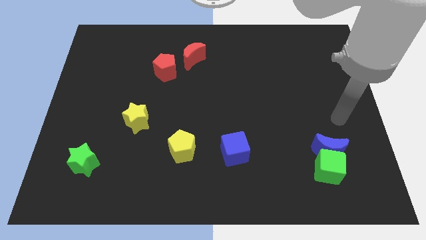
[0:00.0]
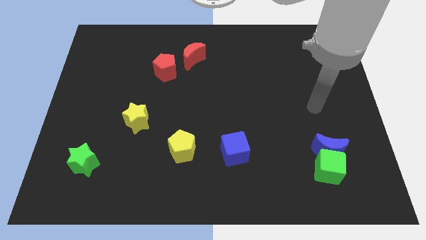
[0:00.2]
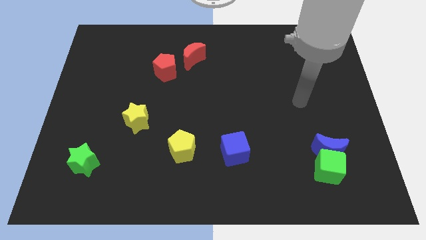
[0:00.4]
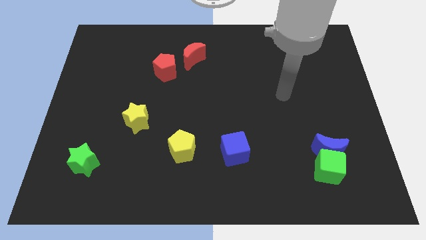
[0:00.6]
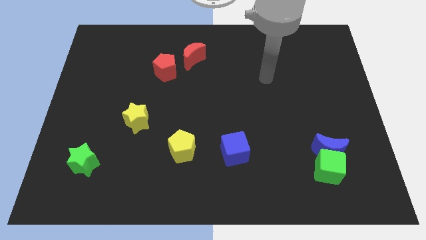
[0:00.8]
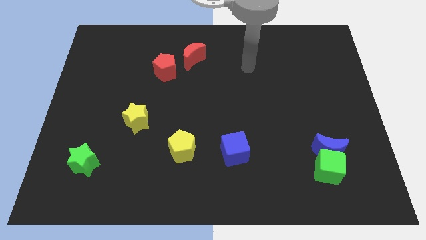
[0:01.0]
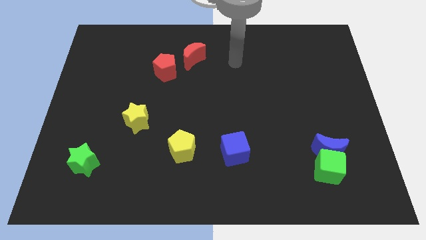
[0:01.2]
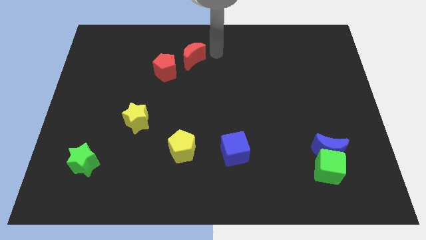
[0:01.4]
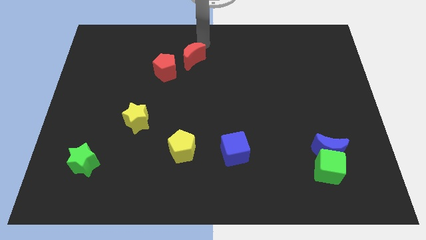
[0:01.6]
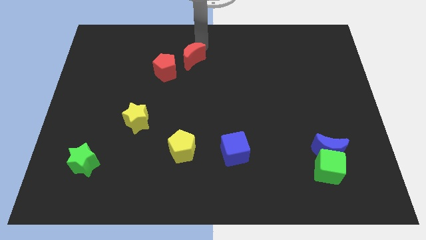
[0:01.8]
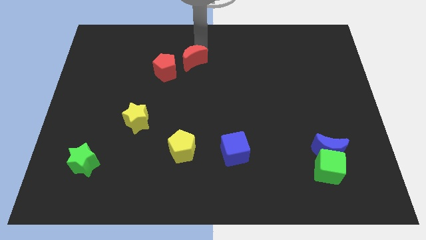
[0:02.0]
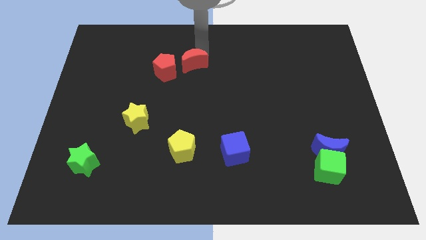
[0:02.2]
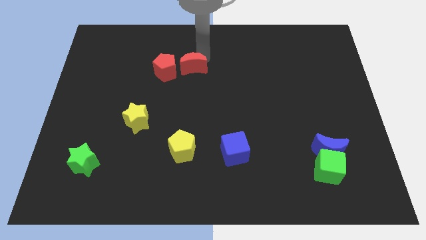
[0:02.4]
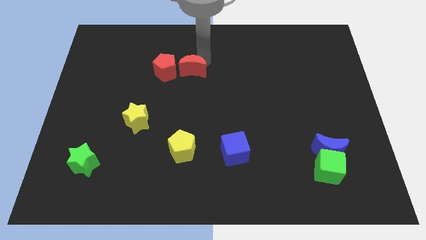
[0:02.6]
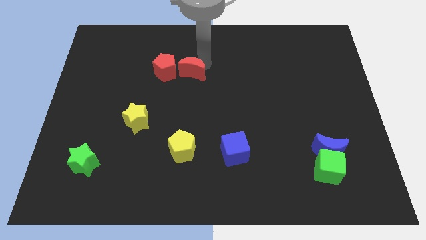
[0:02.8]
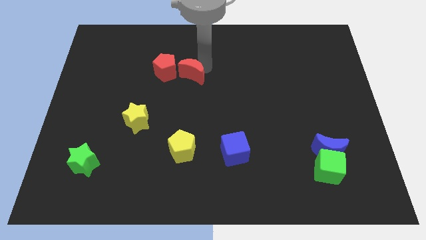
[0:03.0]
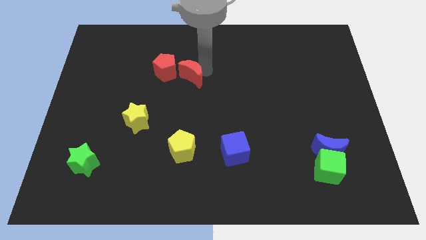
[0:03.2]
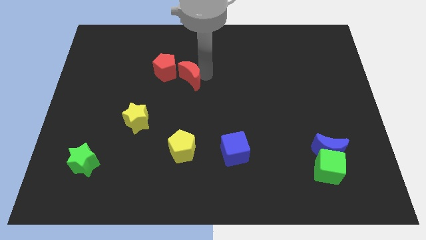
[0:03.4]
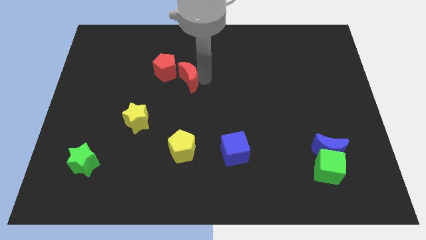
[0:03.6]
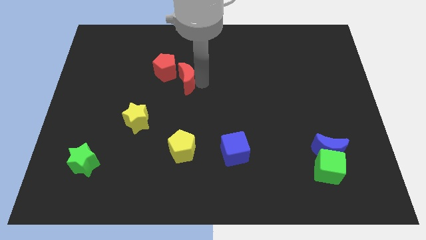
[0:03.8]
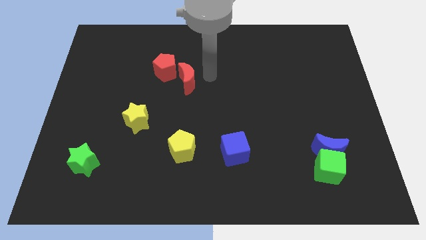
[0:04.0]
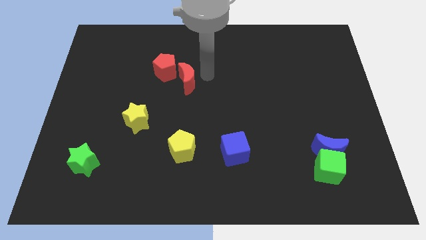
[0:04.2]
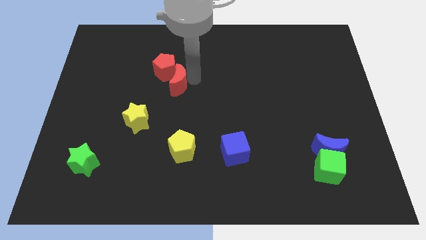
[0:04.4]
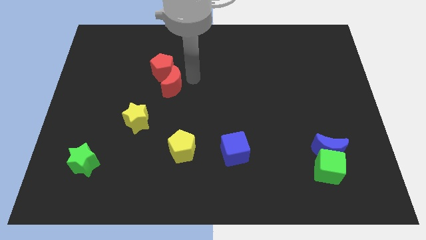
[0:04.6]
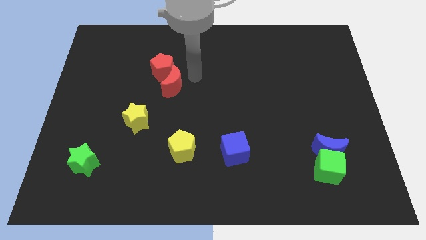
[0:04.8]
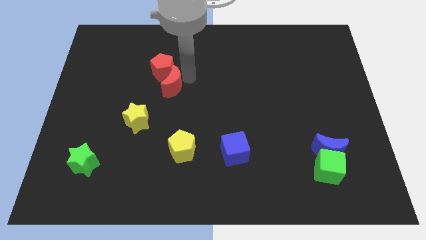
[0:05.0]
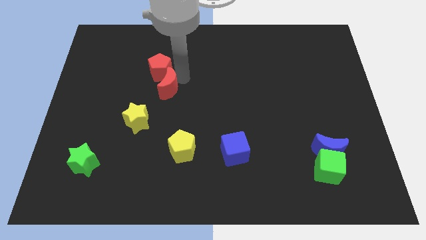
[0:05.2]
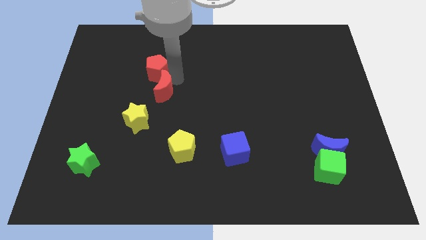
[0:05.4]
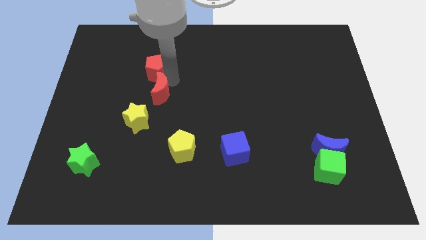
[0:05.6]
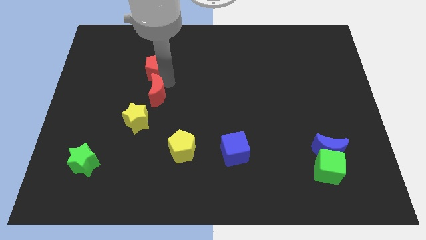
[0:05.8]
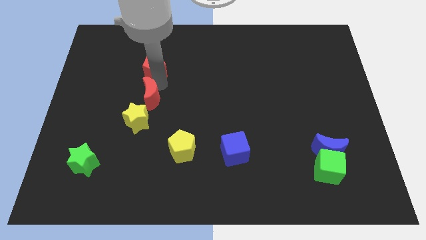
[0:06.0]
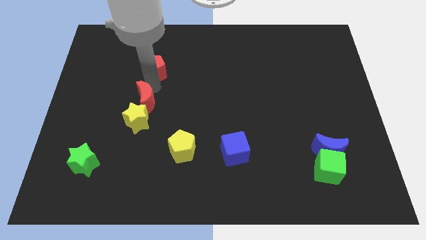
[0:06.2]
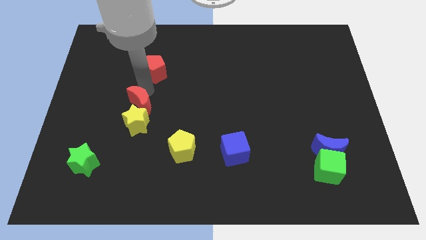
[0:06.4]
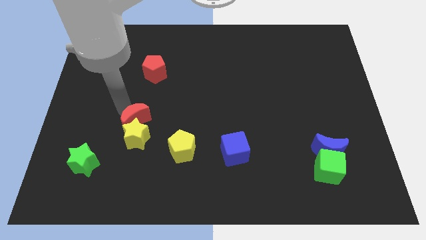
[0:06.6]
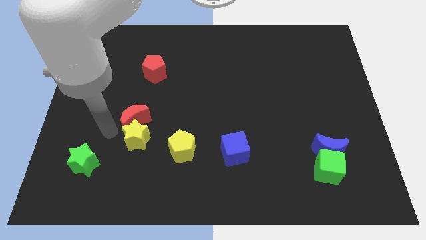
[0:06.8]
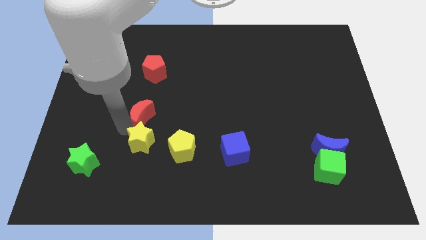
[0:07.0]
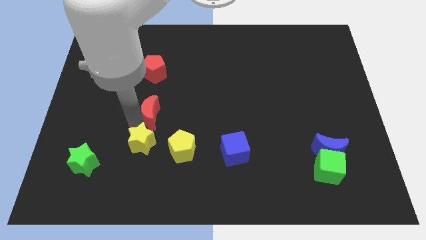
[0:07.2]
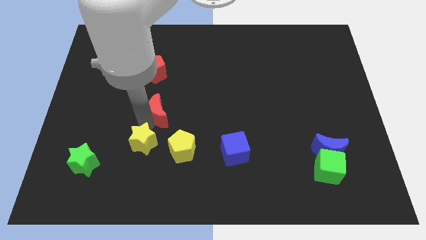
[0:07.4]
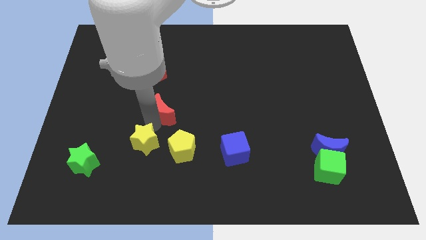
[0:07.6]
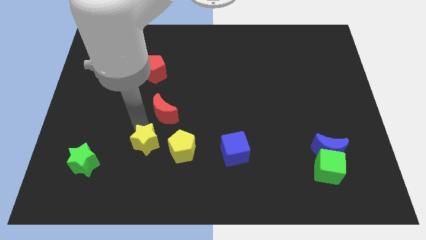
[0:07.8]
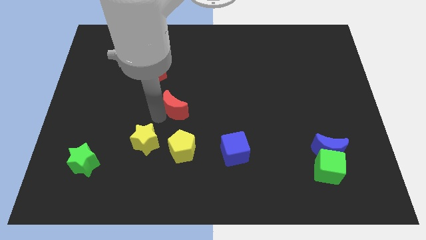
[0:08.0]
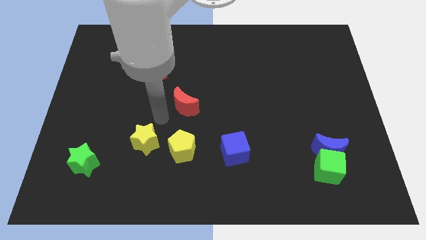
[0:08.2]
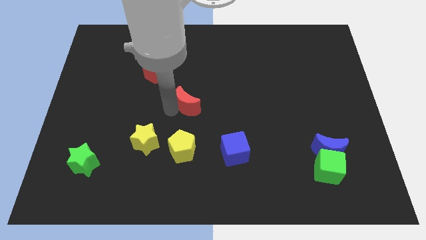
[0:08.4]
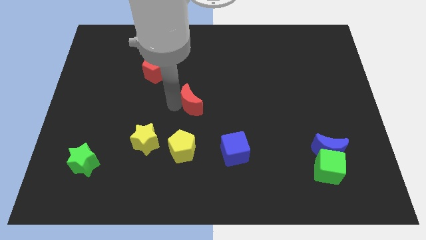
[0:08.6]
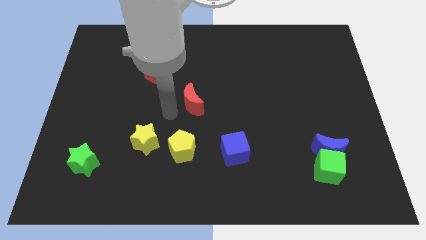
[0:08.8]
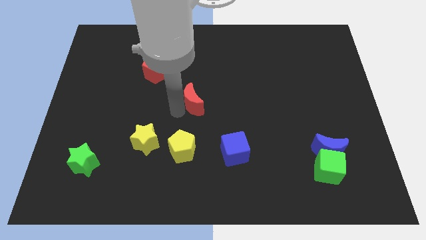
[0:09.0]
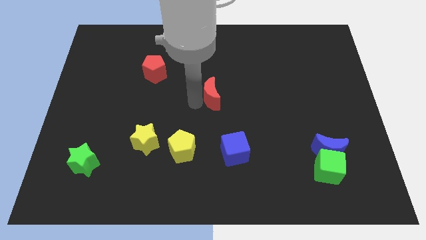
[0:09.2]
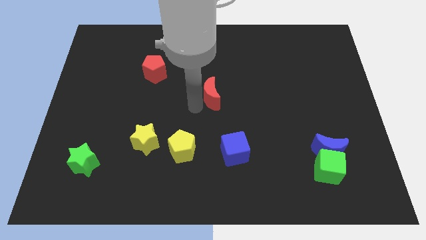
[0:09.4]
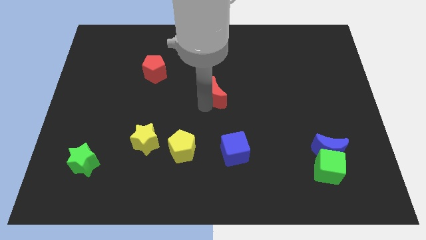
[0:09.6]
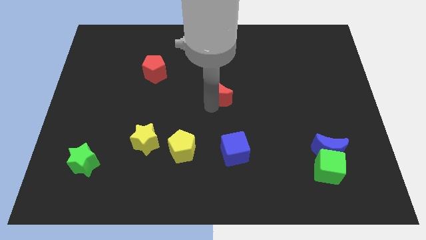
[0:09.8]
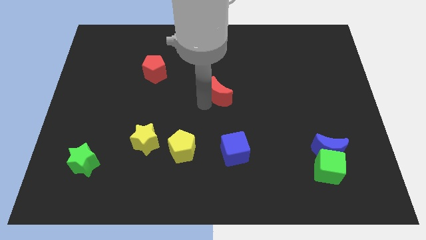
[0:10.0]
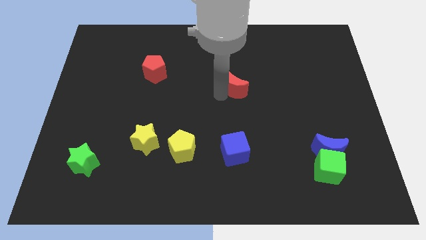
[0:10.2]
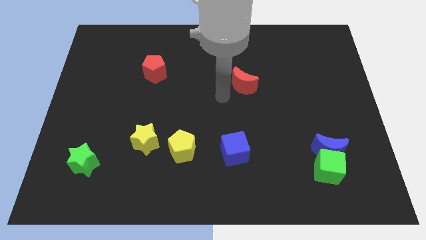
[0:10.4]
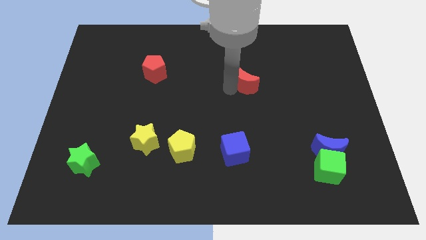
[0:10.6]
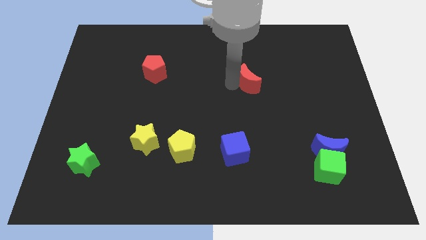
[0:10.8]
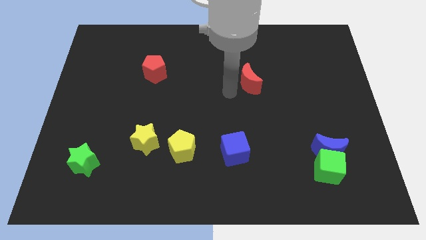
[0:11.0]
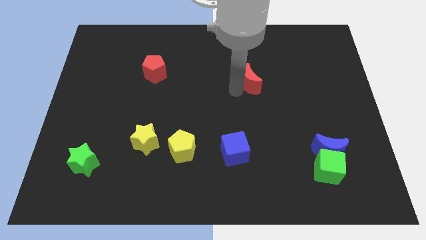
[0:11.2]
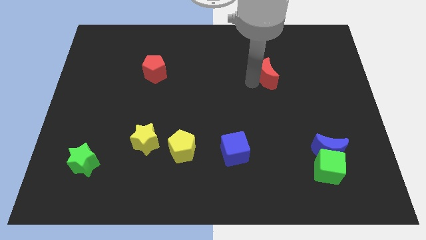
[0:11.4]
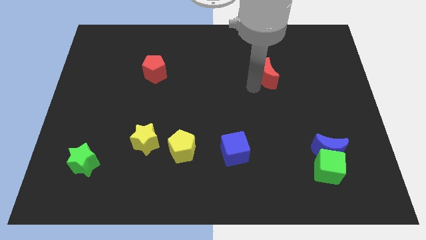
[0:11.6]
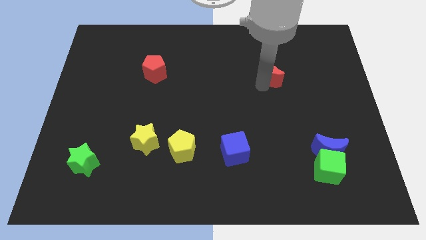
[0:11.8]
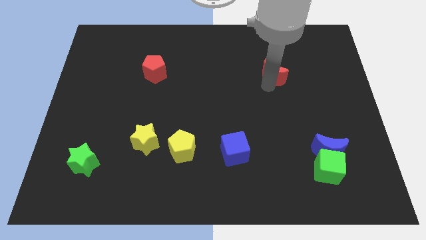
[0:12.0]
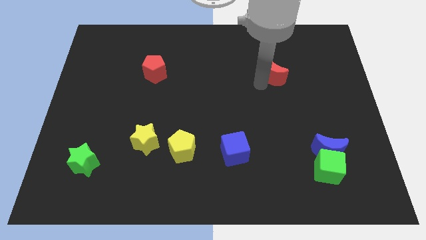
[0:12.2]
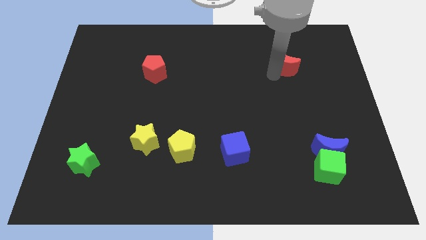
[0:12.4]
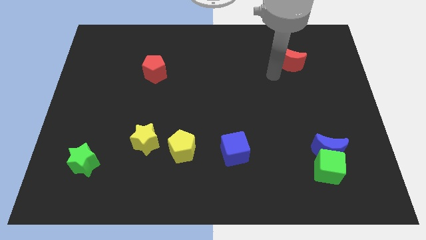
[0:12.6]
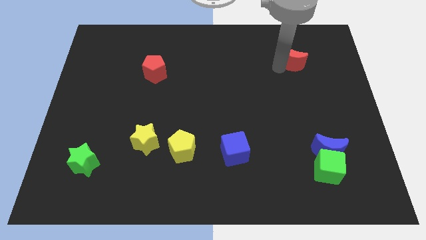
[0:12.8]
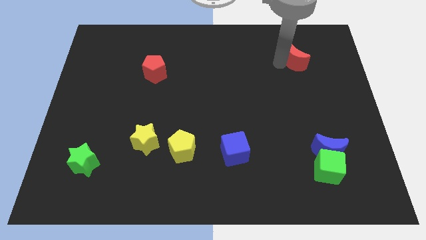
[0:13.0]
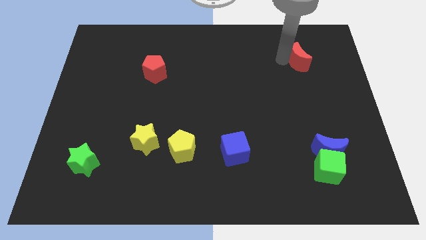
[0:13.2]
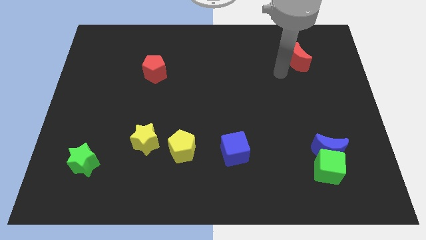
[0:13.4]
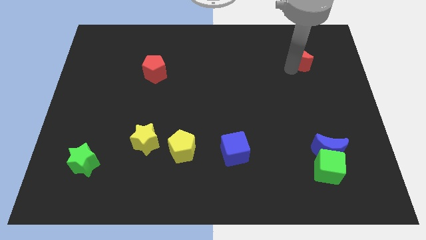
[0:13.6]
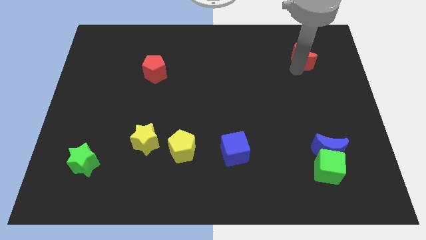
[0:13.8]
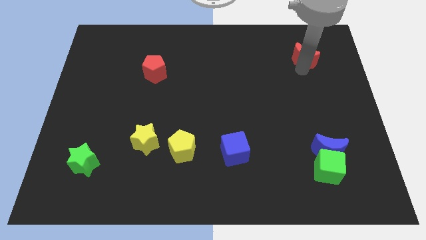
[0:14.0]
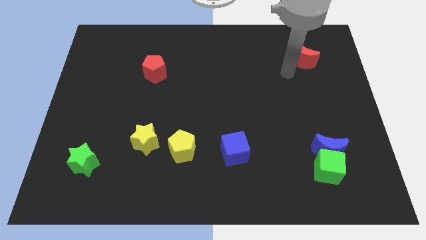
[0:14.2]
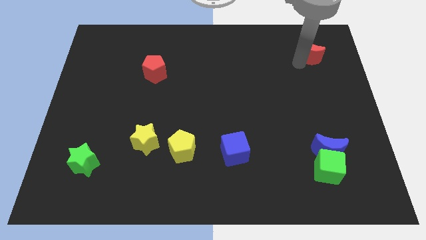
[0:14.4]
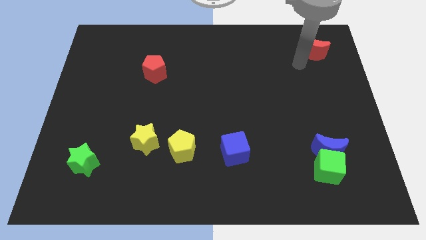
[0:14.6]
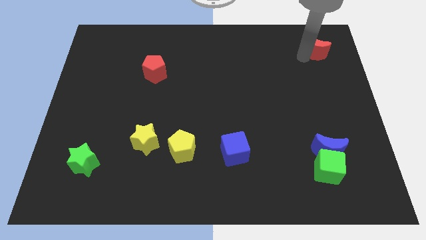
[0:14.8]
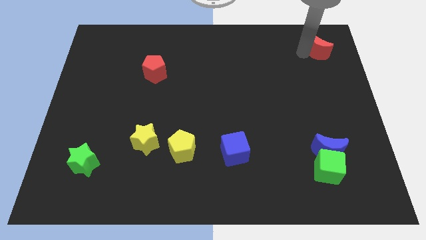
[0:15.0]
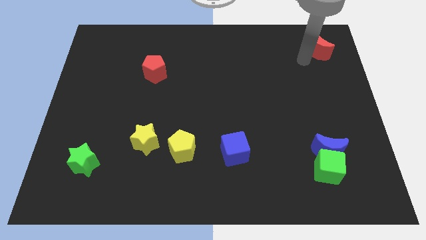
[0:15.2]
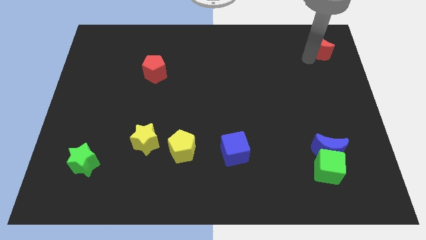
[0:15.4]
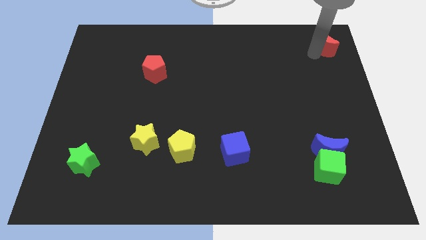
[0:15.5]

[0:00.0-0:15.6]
slide the red moon to the top right
